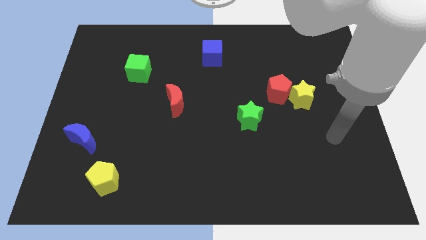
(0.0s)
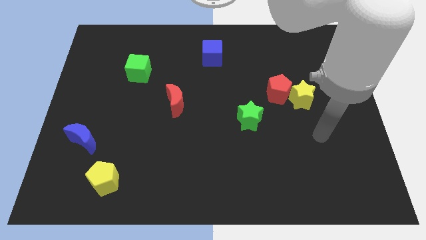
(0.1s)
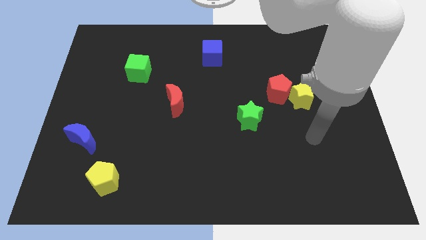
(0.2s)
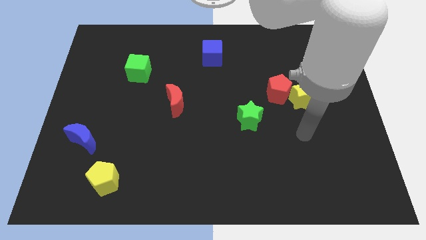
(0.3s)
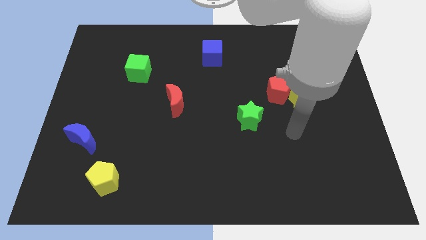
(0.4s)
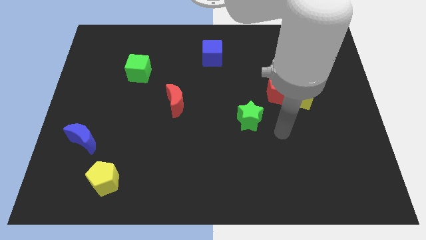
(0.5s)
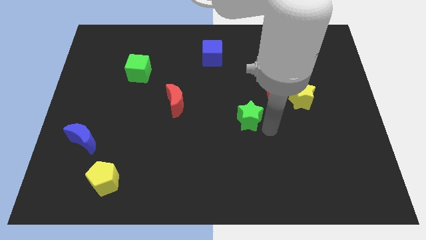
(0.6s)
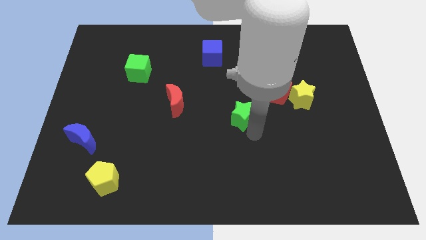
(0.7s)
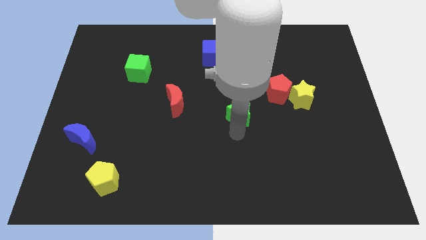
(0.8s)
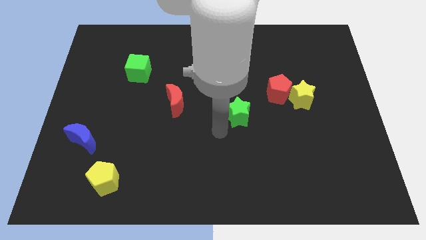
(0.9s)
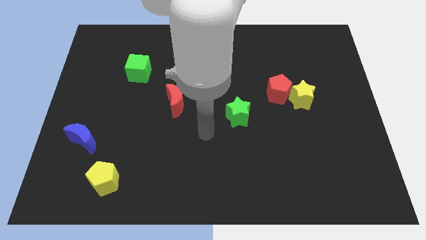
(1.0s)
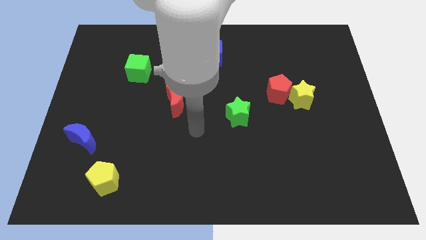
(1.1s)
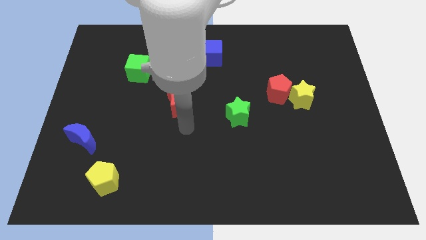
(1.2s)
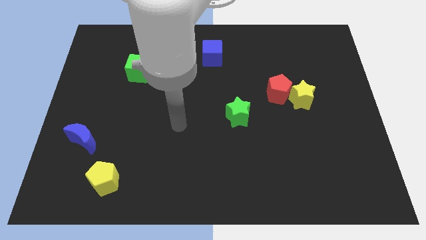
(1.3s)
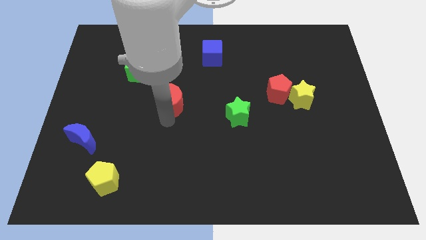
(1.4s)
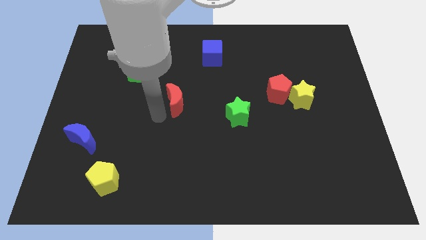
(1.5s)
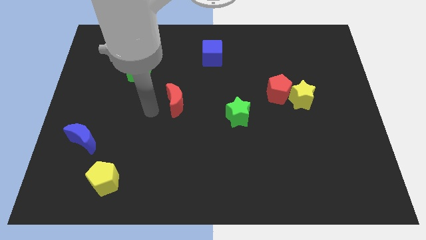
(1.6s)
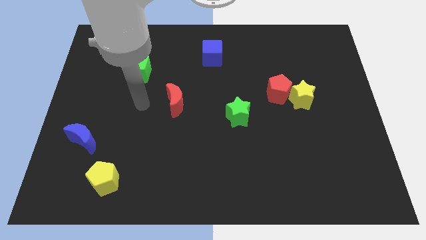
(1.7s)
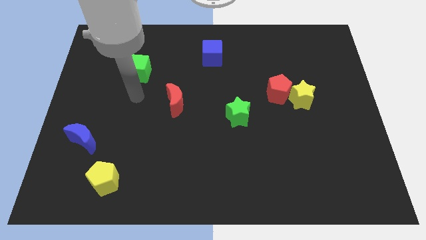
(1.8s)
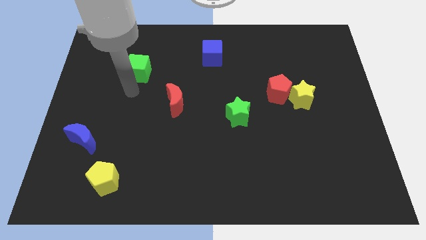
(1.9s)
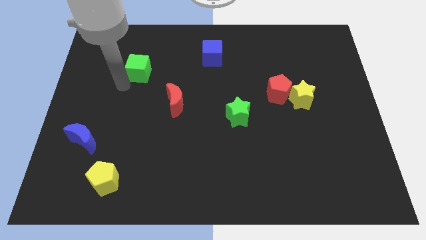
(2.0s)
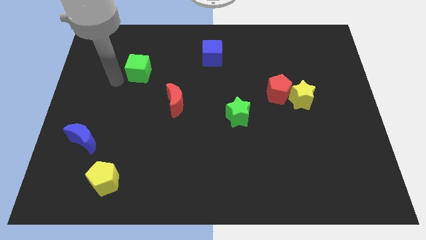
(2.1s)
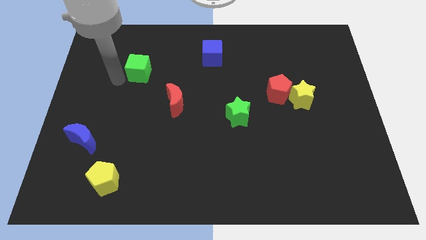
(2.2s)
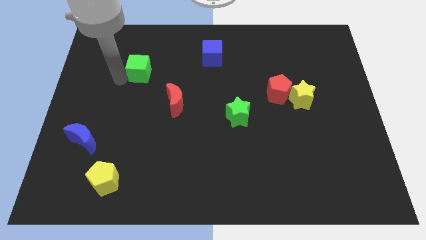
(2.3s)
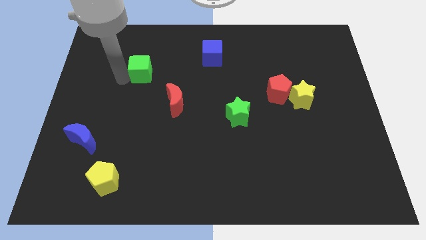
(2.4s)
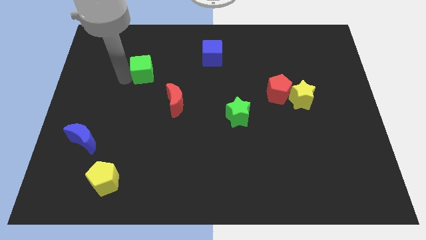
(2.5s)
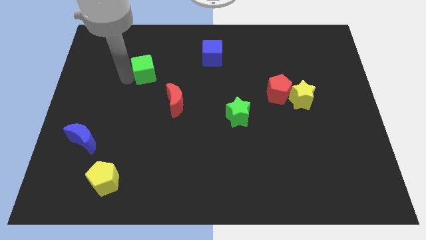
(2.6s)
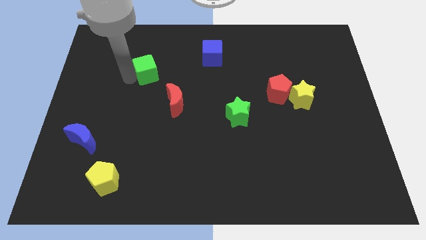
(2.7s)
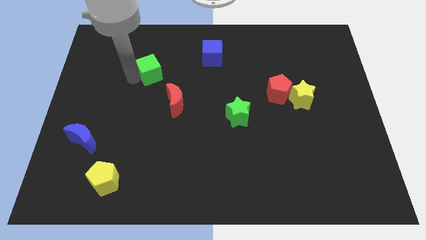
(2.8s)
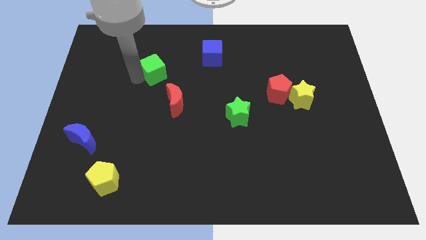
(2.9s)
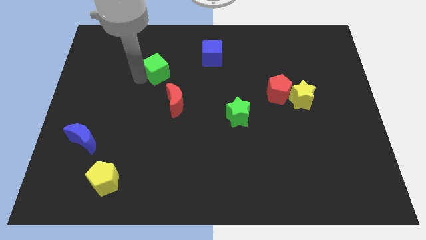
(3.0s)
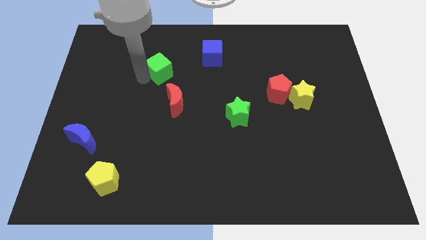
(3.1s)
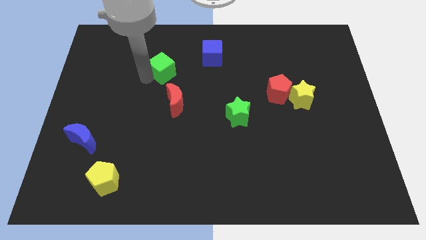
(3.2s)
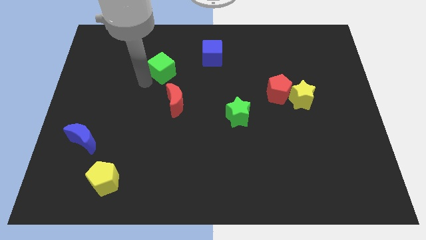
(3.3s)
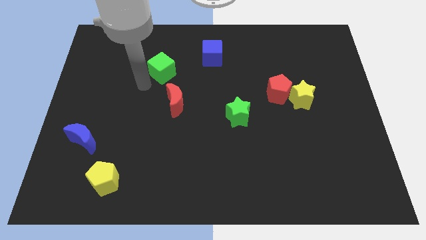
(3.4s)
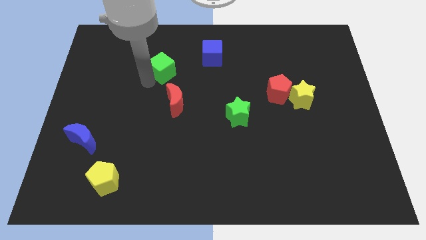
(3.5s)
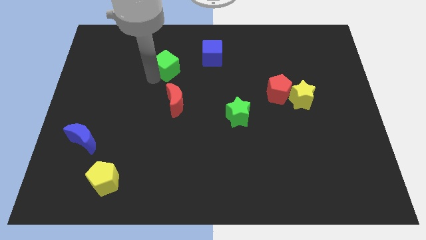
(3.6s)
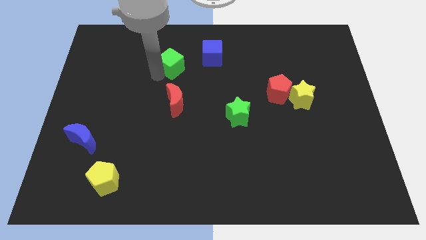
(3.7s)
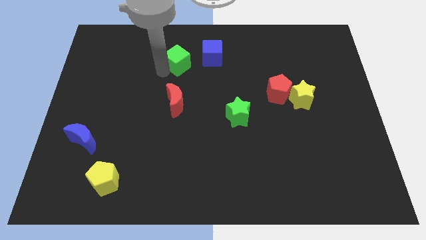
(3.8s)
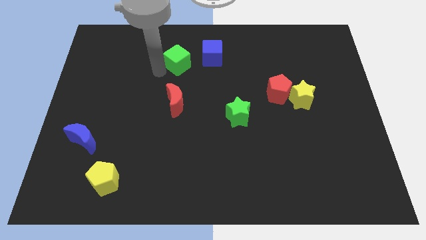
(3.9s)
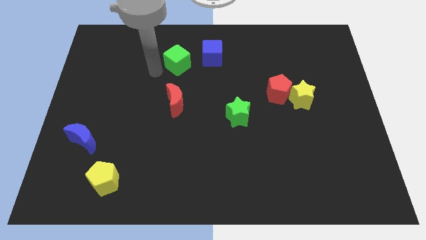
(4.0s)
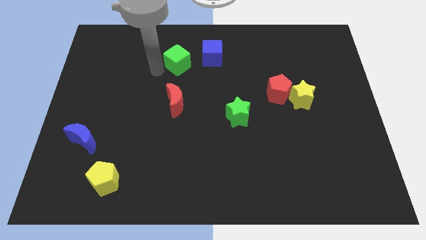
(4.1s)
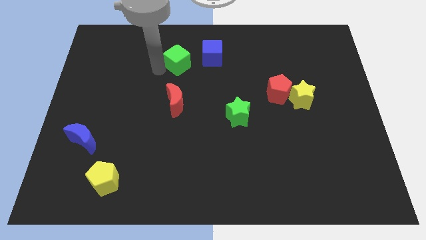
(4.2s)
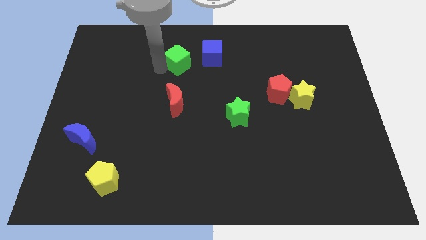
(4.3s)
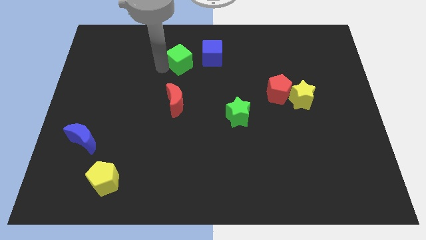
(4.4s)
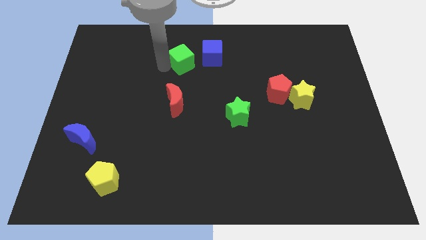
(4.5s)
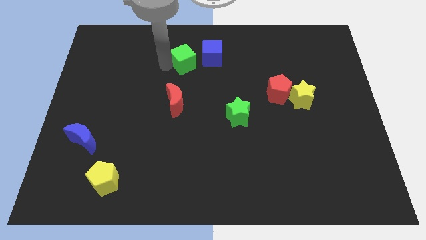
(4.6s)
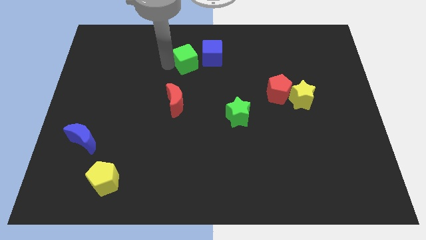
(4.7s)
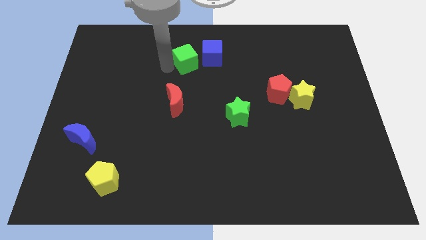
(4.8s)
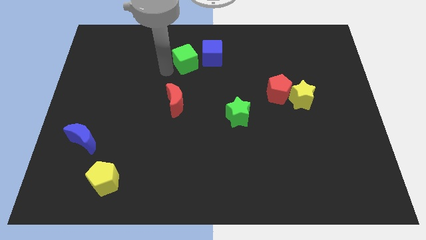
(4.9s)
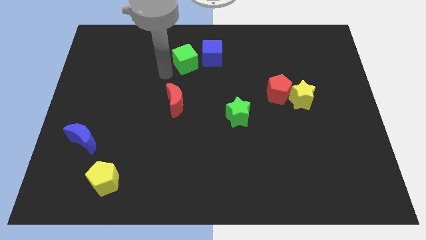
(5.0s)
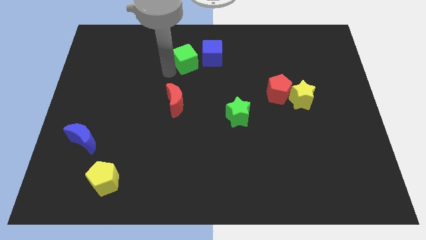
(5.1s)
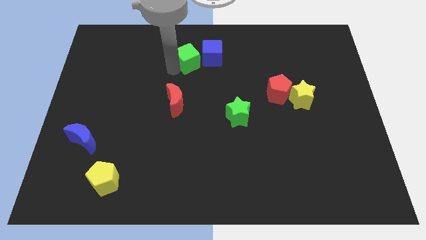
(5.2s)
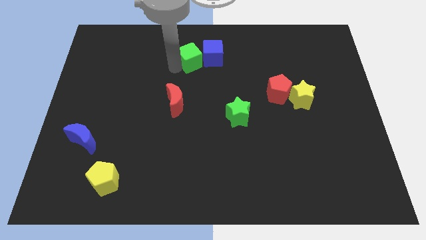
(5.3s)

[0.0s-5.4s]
move the green cube next to the blue cube

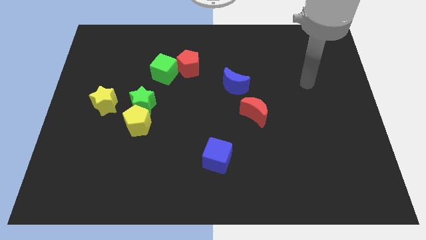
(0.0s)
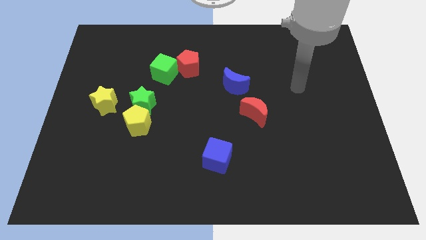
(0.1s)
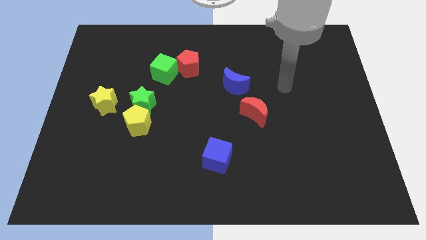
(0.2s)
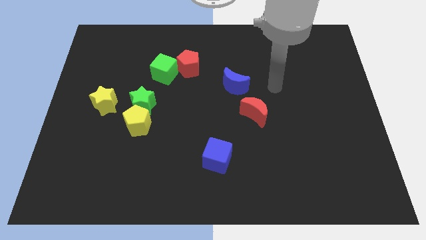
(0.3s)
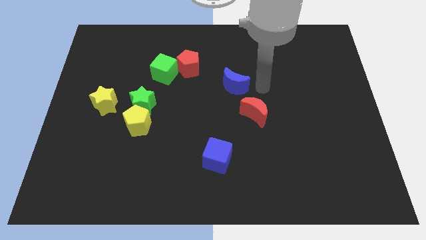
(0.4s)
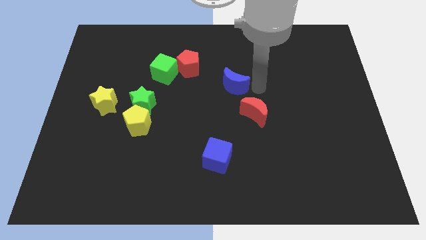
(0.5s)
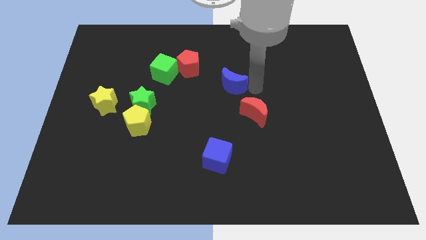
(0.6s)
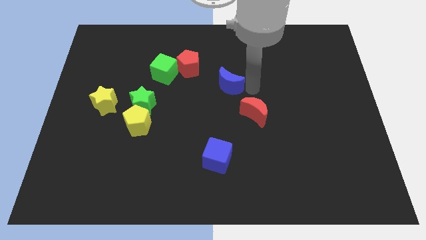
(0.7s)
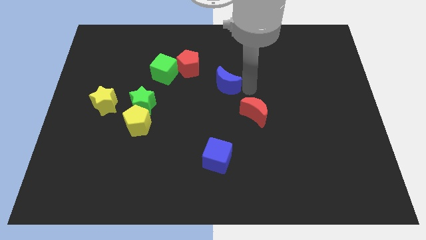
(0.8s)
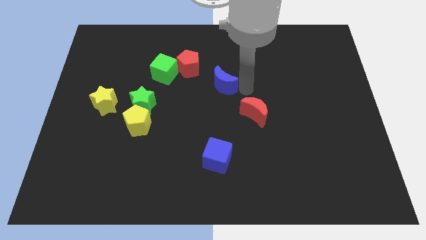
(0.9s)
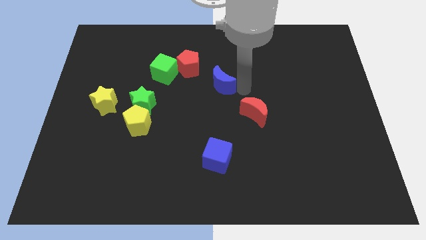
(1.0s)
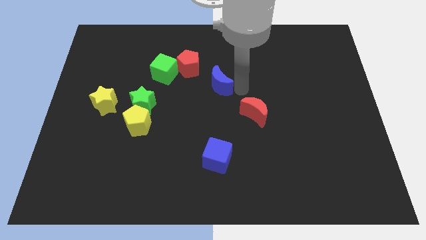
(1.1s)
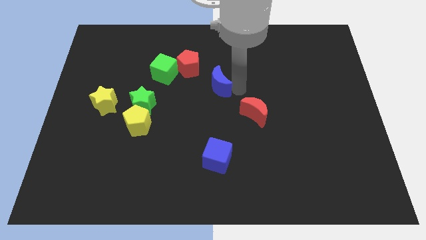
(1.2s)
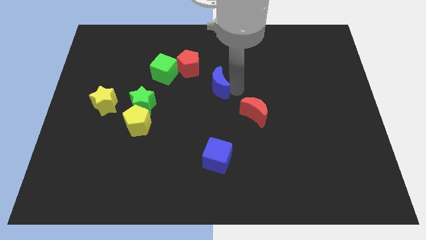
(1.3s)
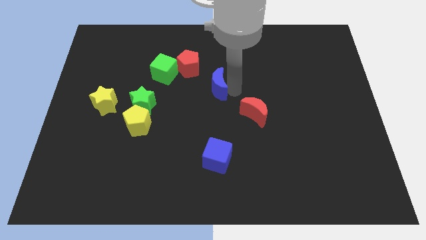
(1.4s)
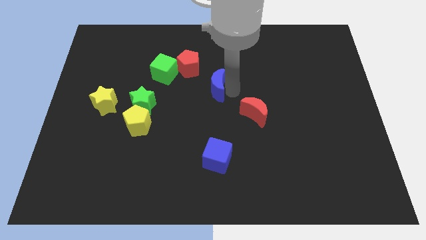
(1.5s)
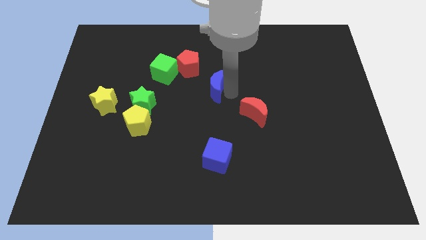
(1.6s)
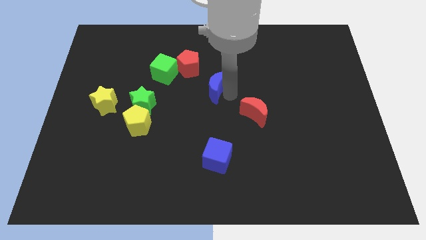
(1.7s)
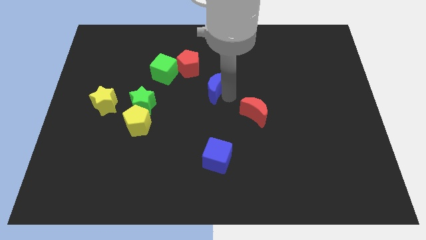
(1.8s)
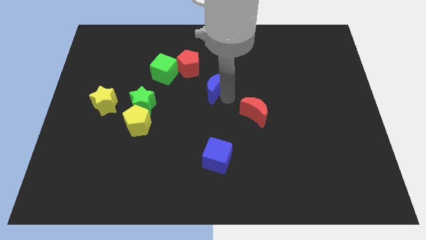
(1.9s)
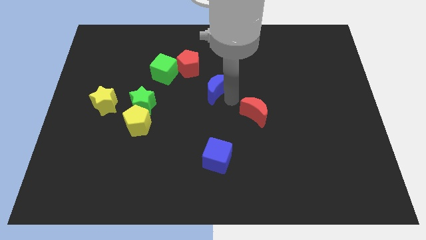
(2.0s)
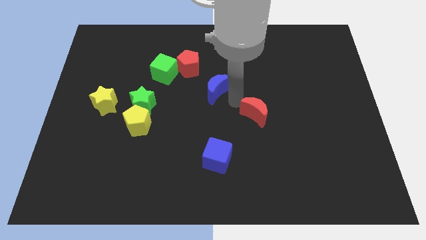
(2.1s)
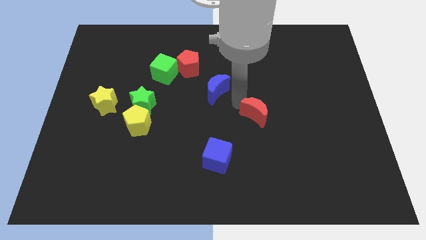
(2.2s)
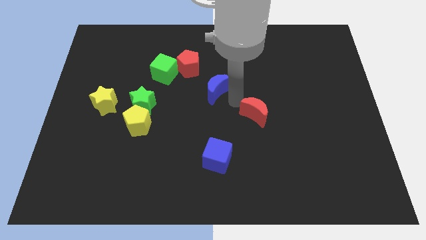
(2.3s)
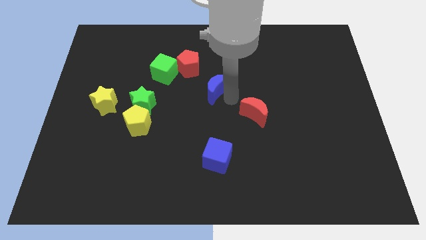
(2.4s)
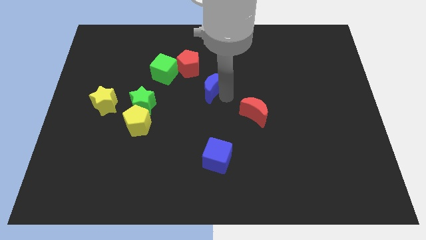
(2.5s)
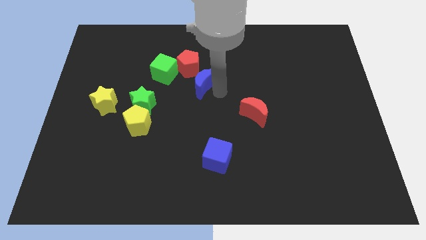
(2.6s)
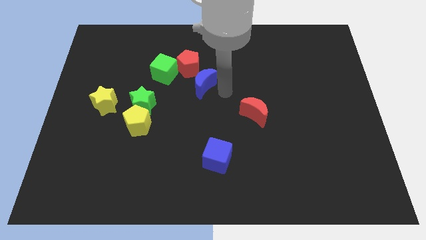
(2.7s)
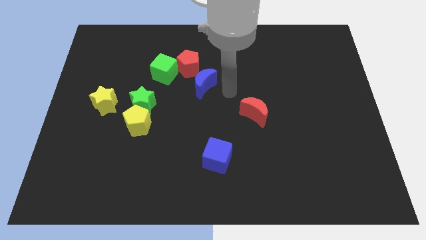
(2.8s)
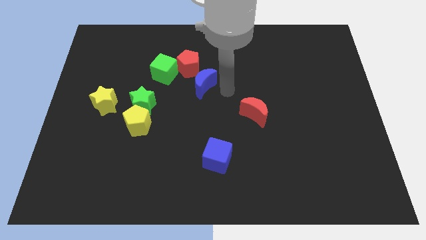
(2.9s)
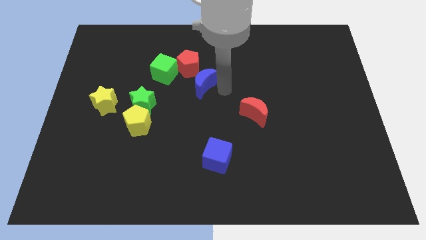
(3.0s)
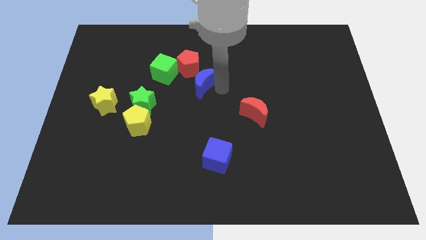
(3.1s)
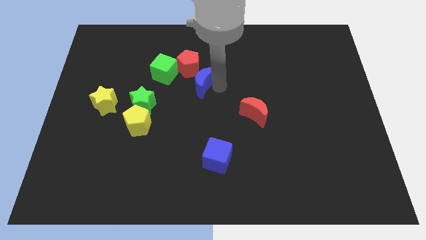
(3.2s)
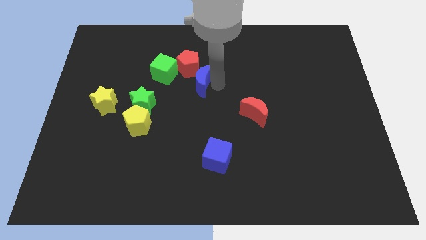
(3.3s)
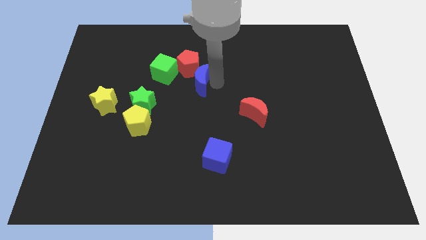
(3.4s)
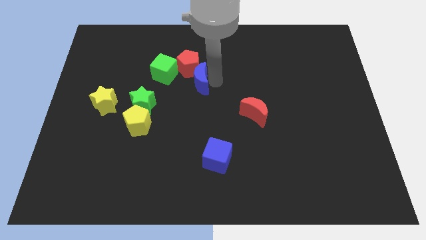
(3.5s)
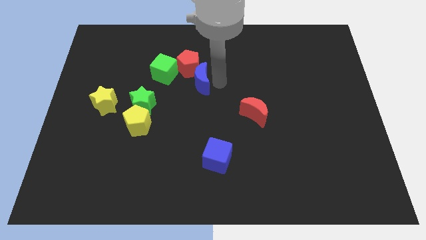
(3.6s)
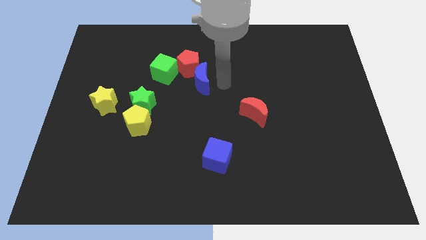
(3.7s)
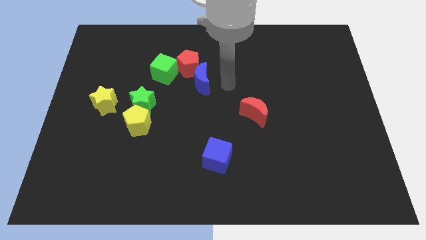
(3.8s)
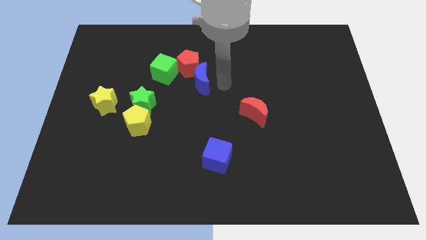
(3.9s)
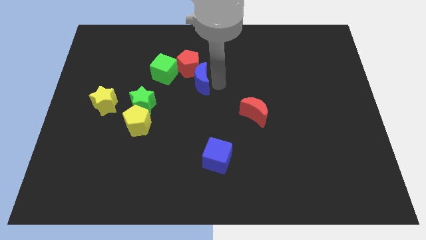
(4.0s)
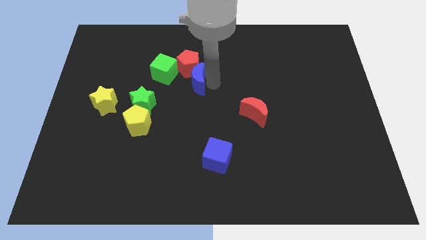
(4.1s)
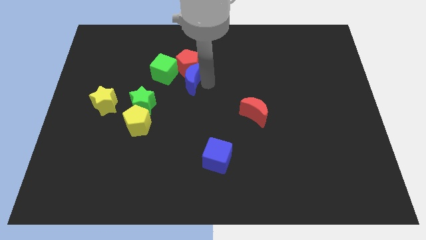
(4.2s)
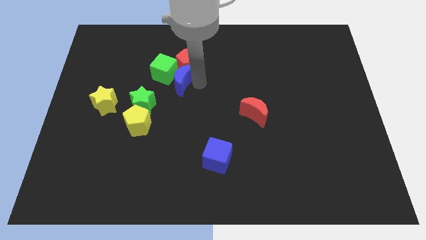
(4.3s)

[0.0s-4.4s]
slide the blue moon to the green cube
